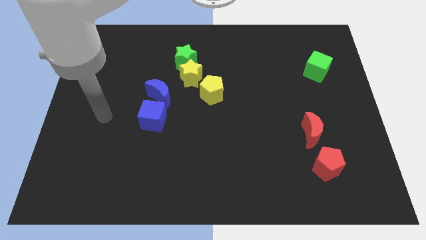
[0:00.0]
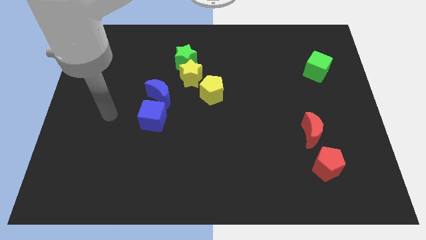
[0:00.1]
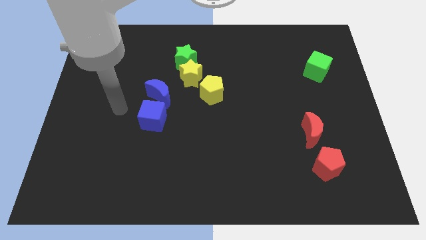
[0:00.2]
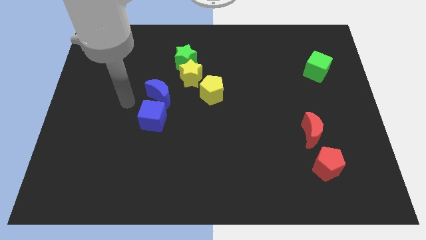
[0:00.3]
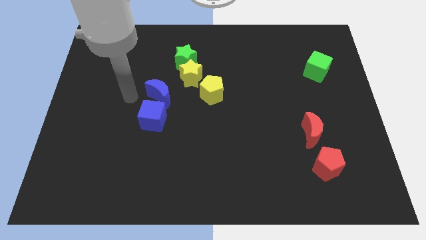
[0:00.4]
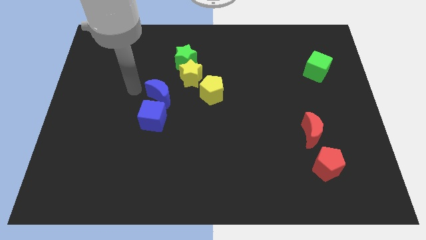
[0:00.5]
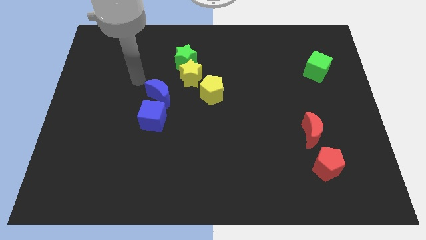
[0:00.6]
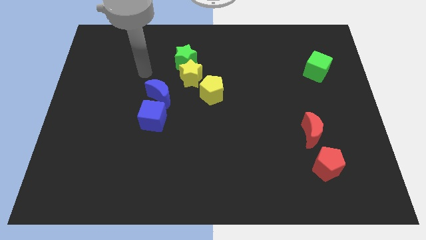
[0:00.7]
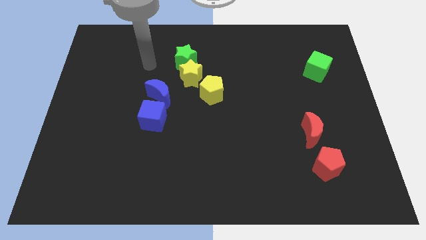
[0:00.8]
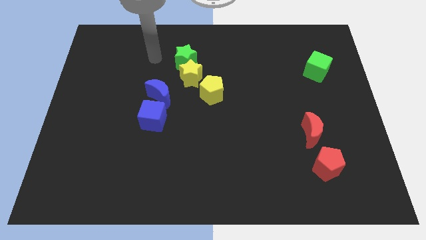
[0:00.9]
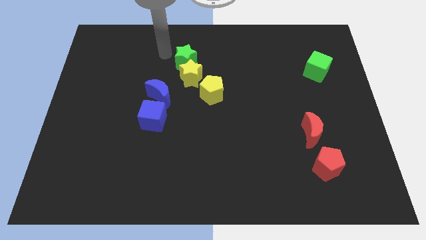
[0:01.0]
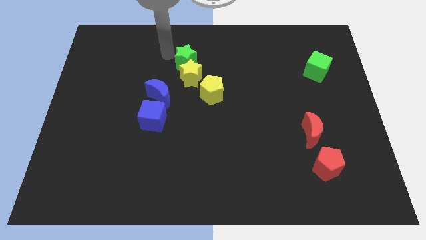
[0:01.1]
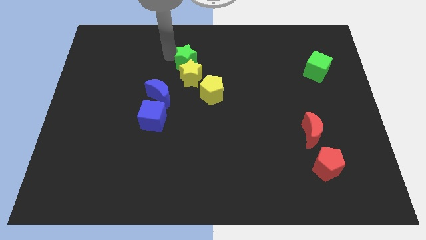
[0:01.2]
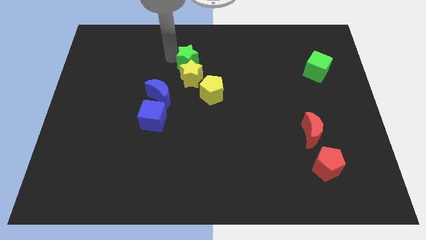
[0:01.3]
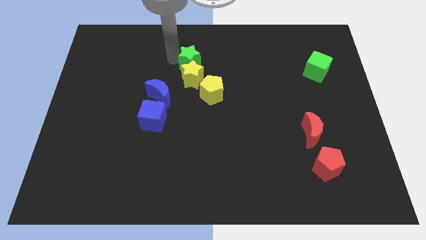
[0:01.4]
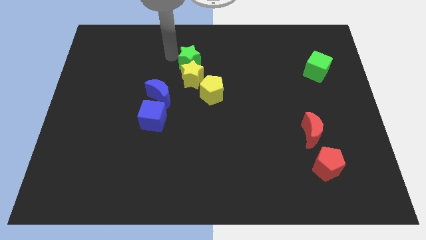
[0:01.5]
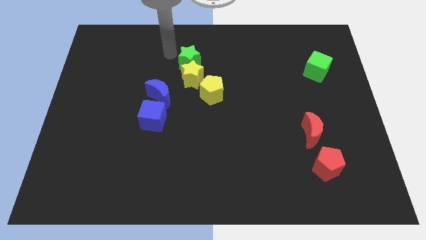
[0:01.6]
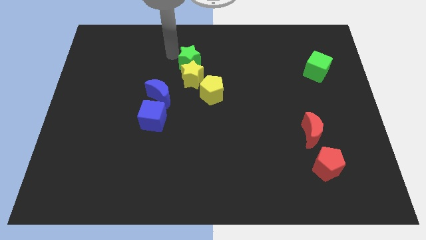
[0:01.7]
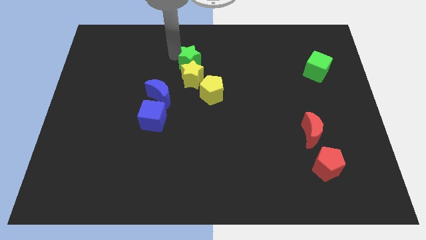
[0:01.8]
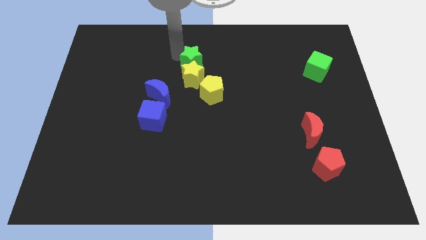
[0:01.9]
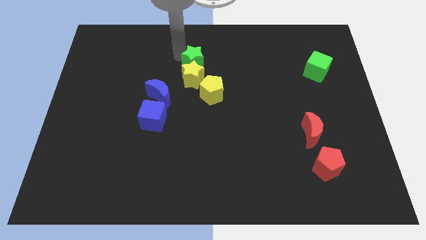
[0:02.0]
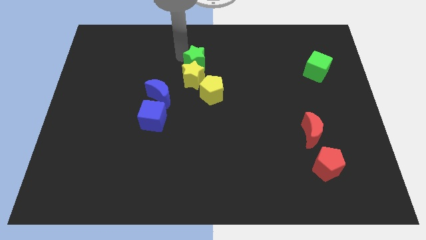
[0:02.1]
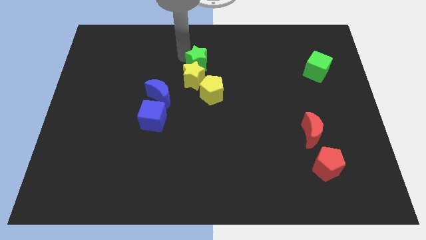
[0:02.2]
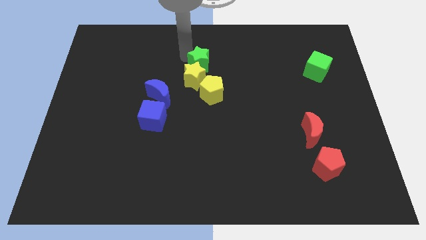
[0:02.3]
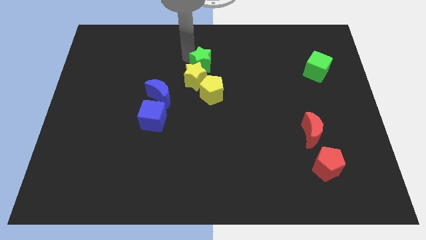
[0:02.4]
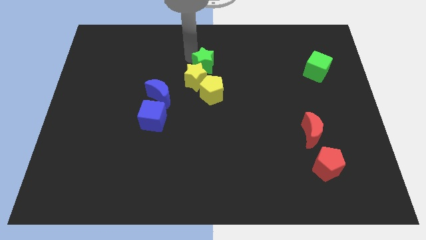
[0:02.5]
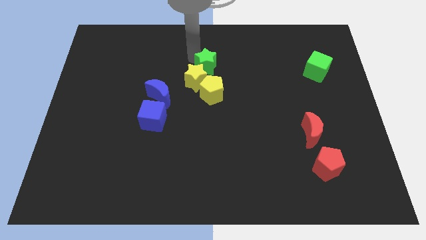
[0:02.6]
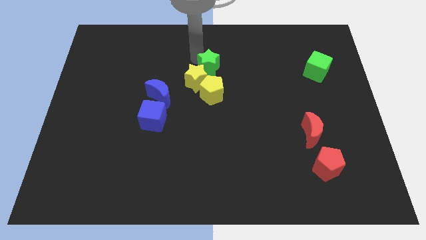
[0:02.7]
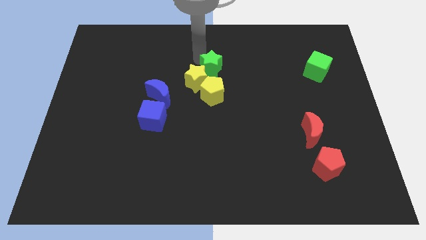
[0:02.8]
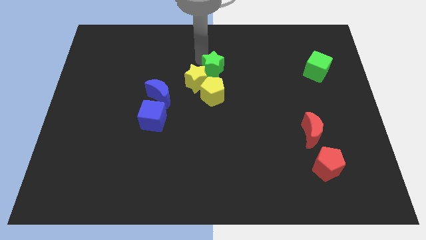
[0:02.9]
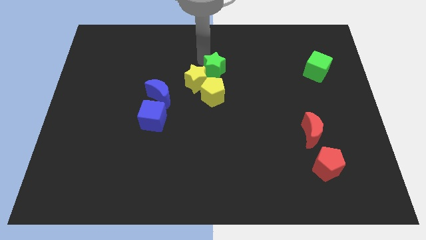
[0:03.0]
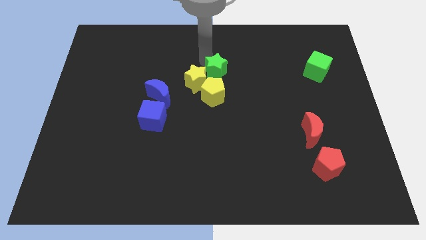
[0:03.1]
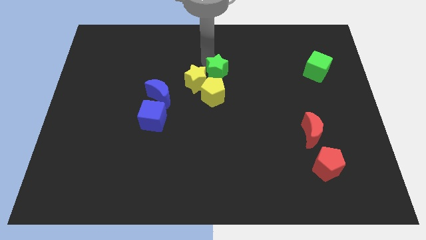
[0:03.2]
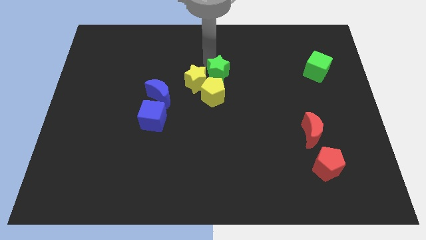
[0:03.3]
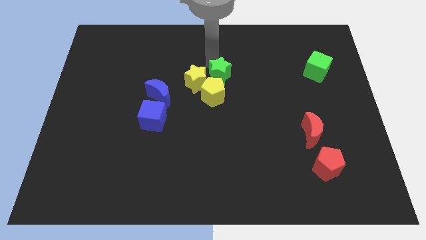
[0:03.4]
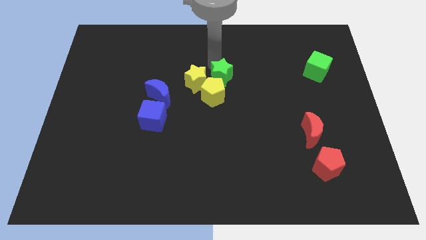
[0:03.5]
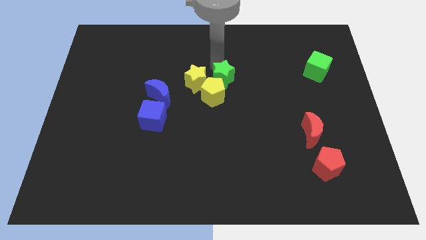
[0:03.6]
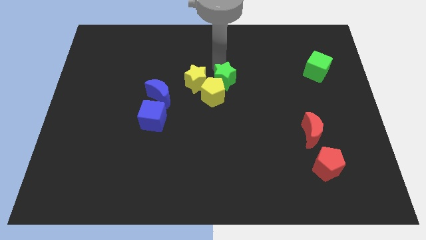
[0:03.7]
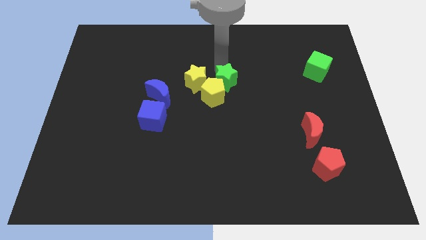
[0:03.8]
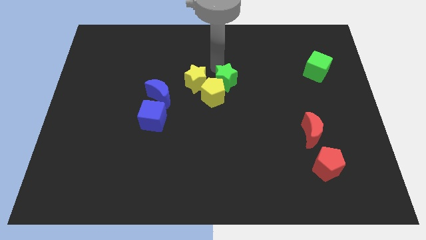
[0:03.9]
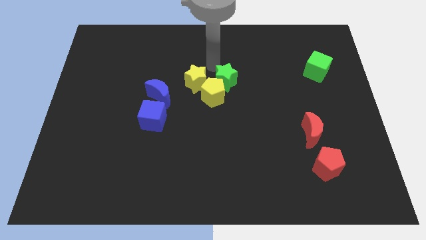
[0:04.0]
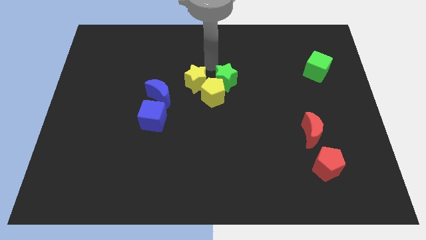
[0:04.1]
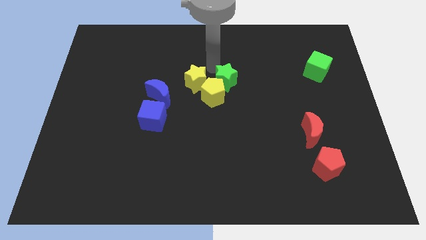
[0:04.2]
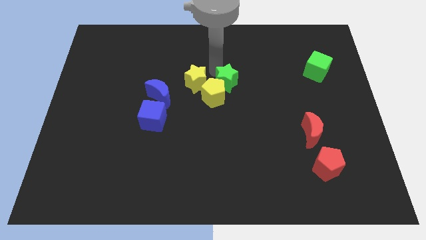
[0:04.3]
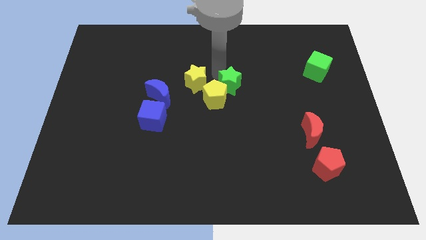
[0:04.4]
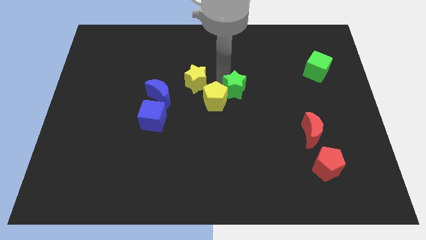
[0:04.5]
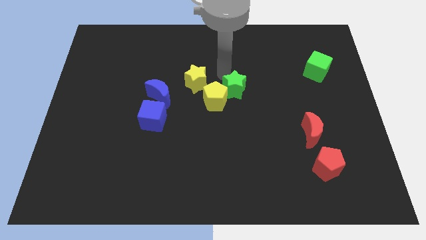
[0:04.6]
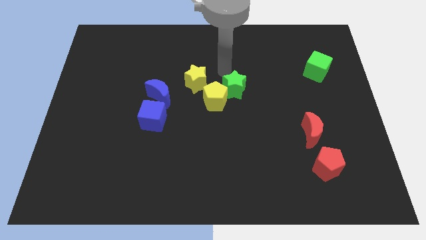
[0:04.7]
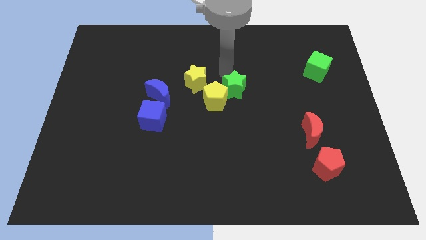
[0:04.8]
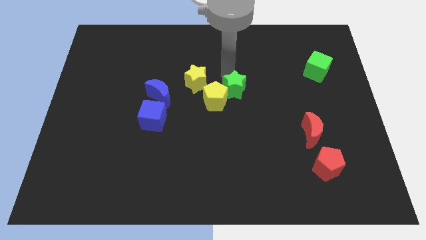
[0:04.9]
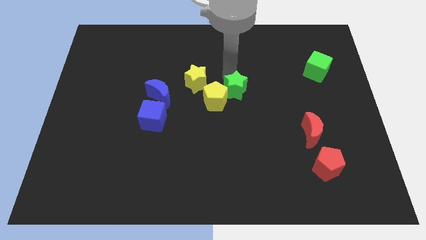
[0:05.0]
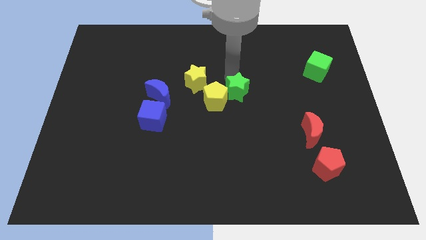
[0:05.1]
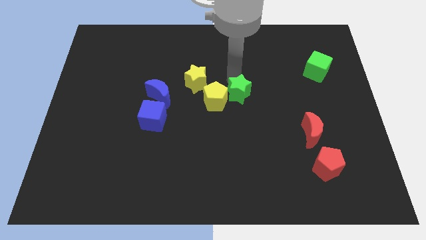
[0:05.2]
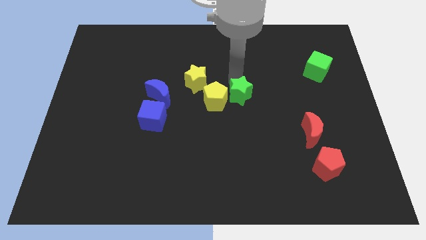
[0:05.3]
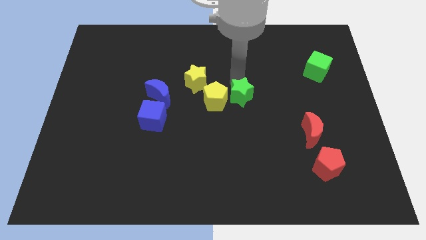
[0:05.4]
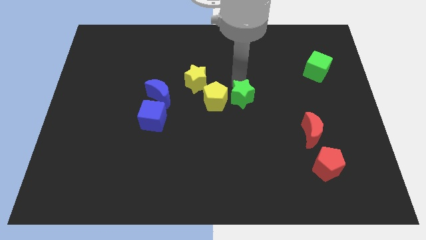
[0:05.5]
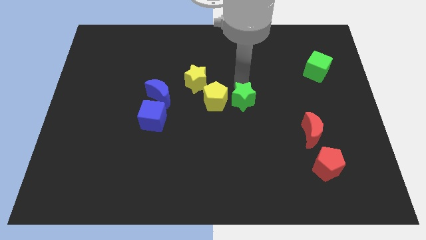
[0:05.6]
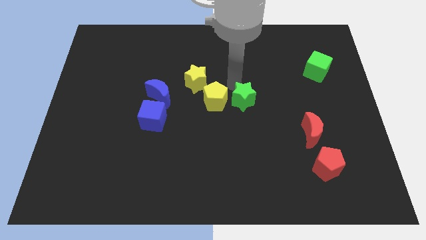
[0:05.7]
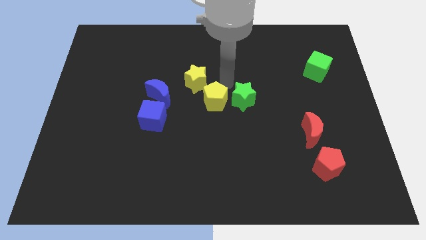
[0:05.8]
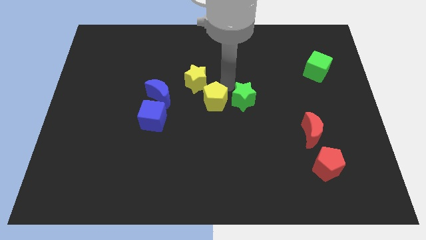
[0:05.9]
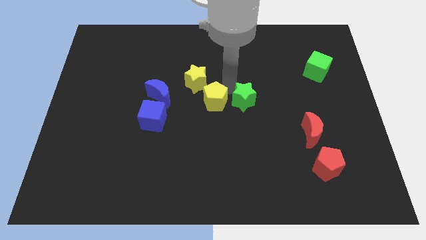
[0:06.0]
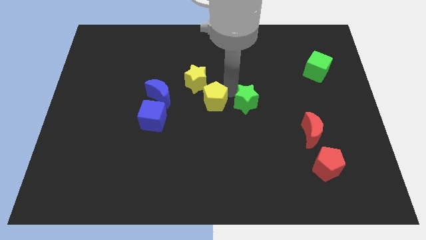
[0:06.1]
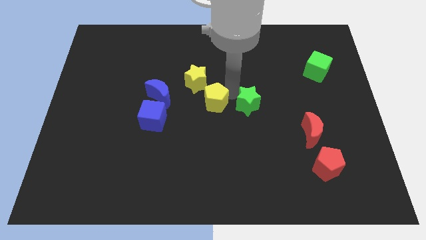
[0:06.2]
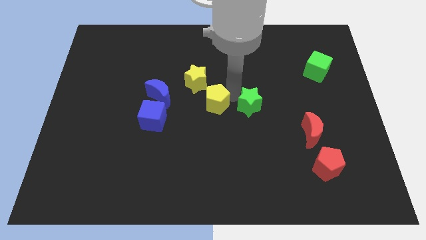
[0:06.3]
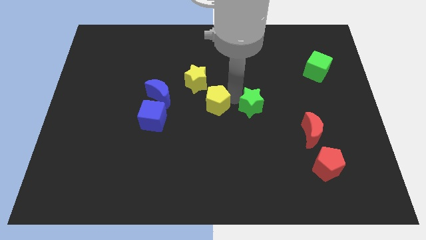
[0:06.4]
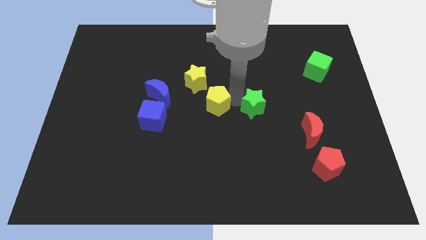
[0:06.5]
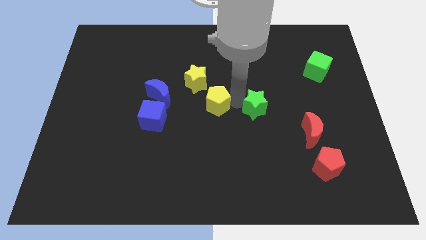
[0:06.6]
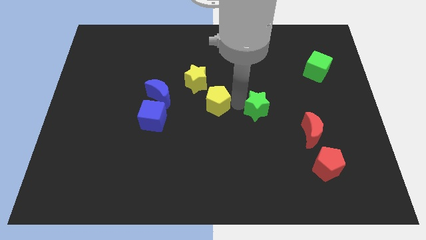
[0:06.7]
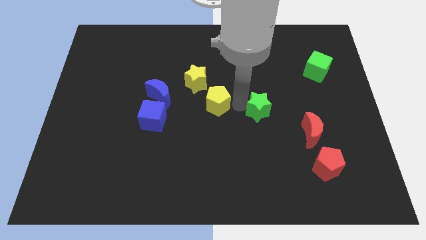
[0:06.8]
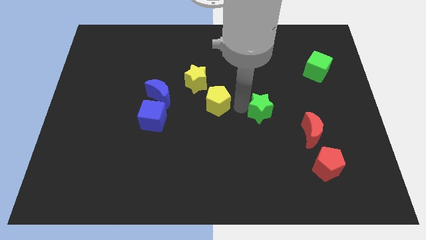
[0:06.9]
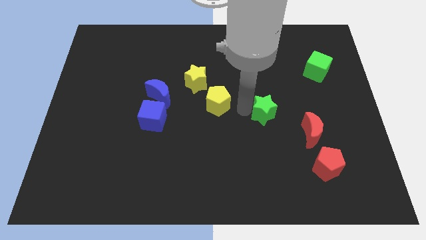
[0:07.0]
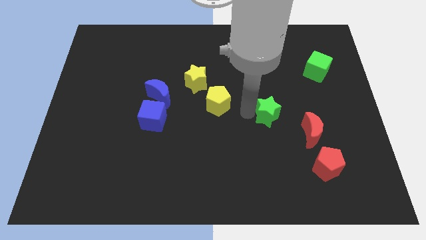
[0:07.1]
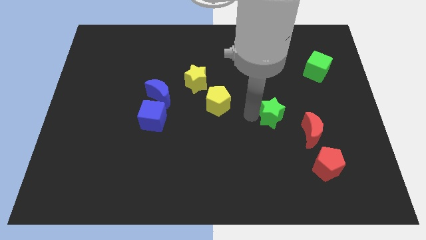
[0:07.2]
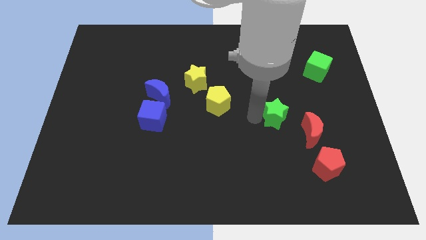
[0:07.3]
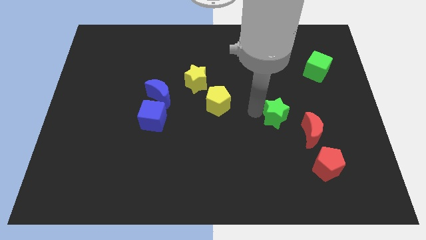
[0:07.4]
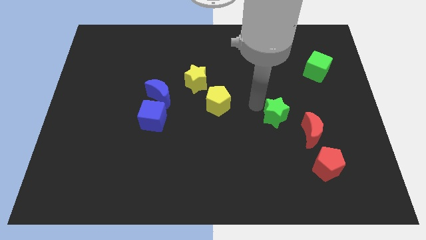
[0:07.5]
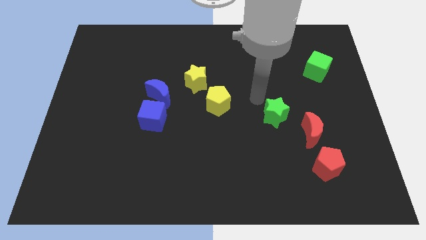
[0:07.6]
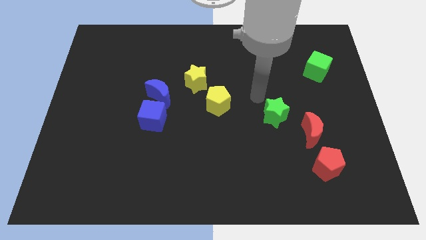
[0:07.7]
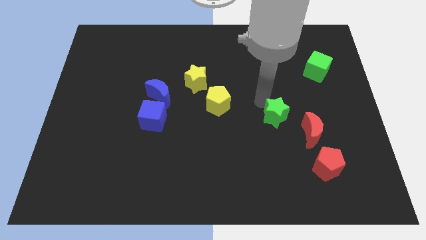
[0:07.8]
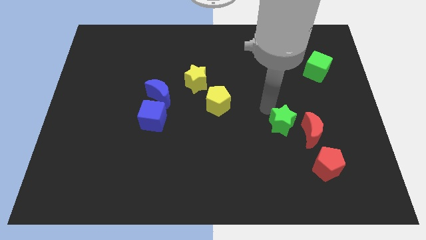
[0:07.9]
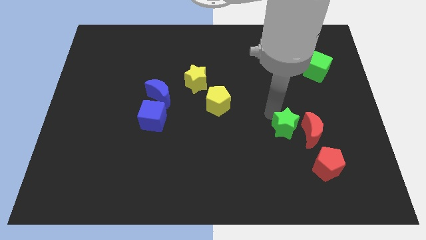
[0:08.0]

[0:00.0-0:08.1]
put the green star to the top left side of the red pentagon
